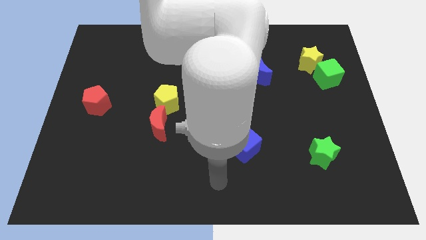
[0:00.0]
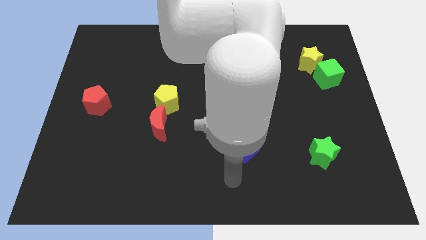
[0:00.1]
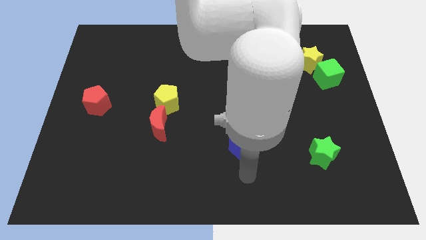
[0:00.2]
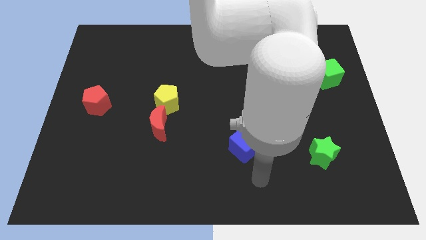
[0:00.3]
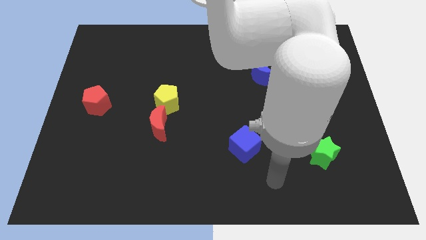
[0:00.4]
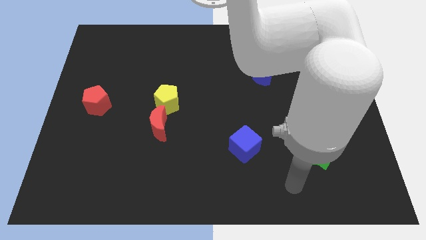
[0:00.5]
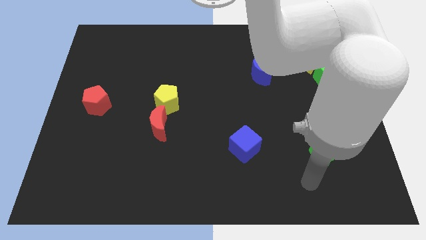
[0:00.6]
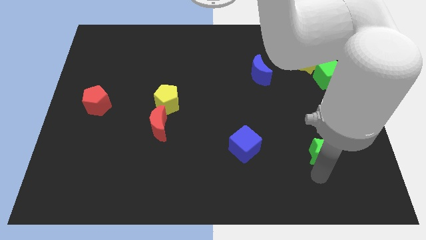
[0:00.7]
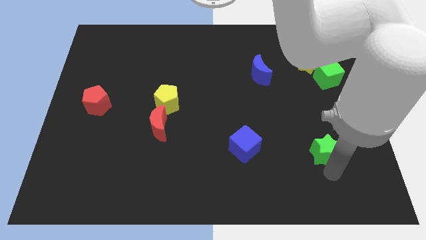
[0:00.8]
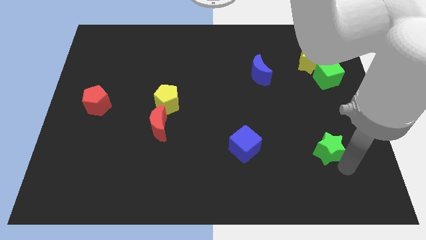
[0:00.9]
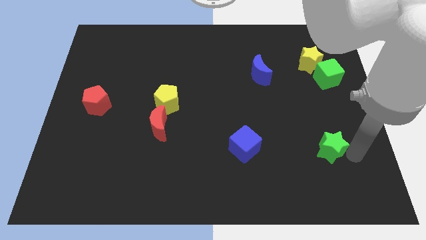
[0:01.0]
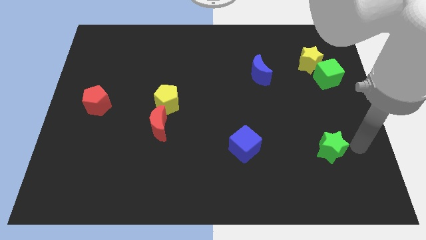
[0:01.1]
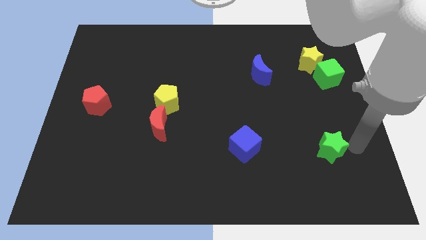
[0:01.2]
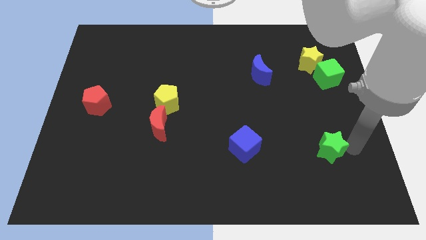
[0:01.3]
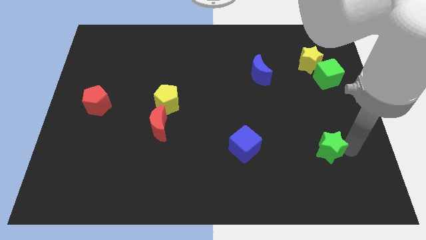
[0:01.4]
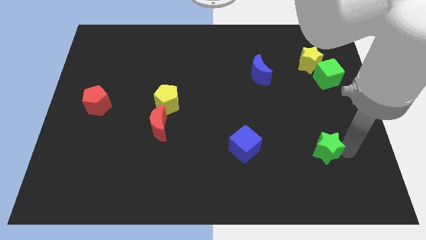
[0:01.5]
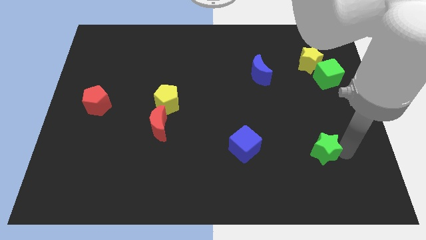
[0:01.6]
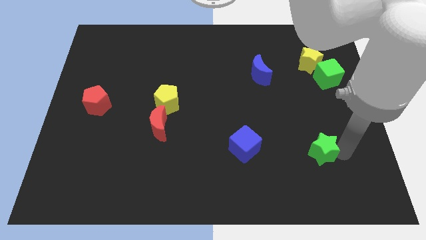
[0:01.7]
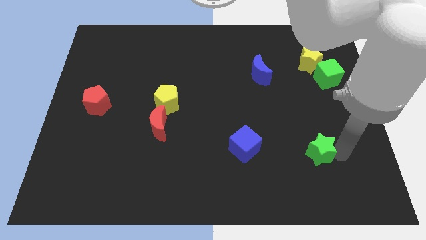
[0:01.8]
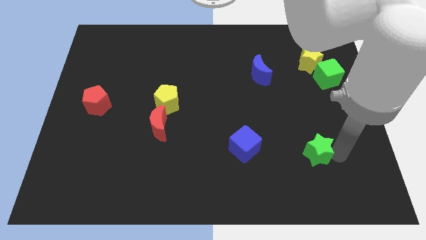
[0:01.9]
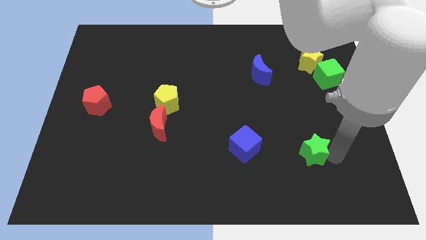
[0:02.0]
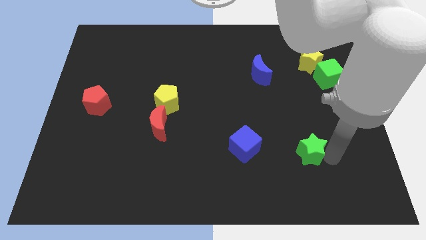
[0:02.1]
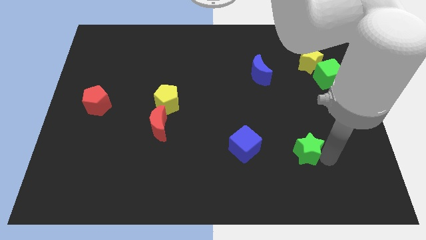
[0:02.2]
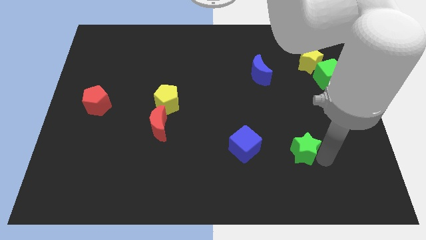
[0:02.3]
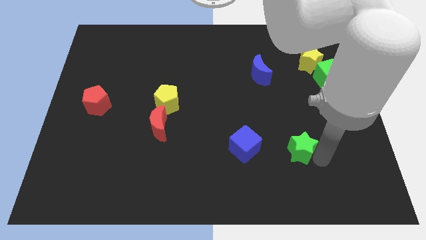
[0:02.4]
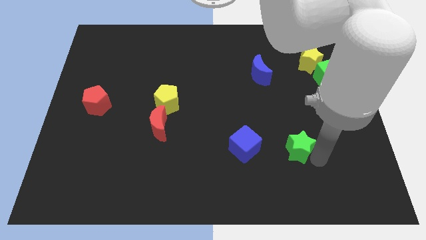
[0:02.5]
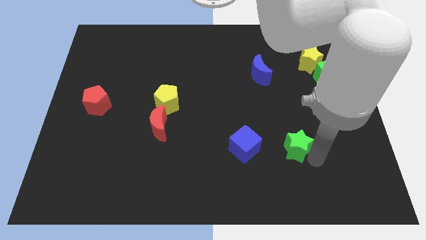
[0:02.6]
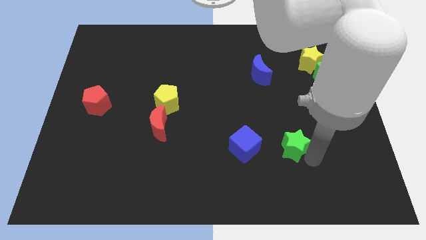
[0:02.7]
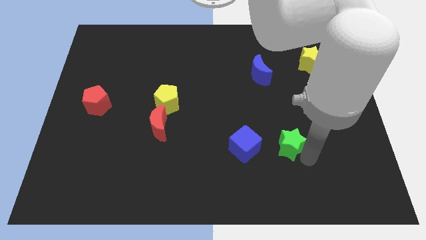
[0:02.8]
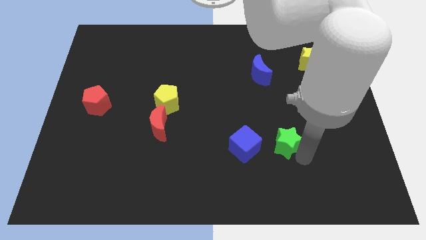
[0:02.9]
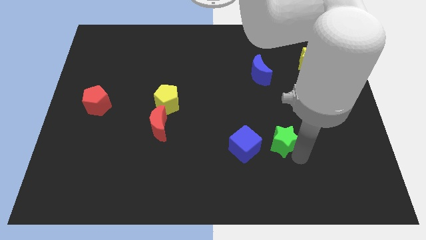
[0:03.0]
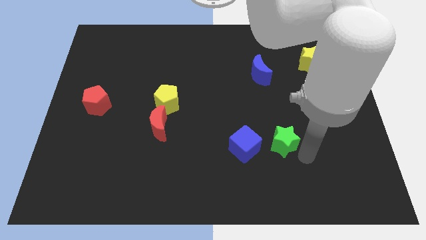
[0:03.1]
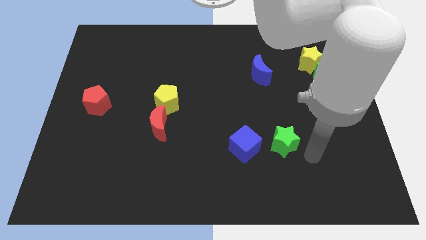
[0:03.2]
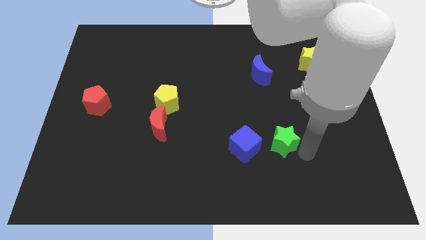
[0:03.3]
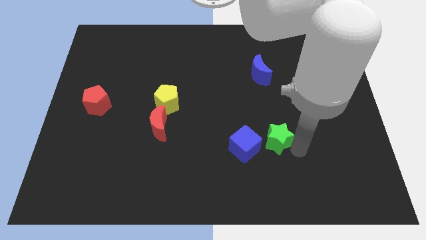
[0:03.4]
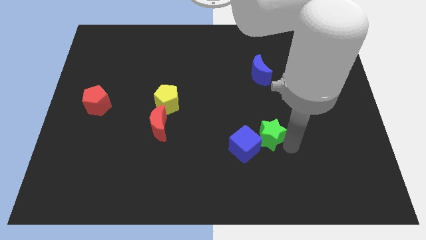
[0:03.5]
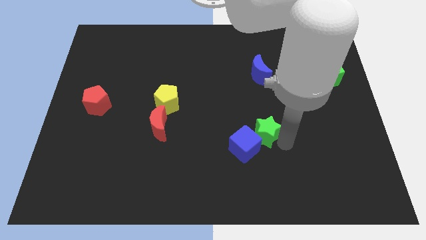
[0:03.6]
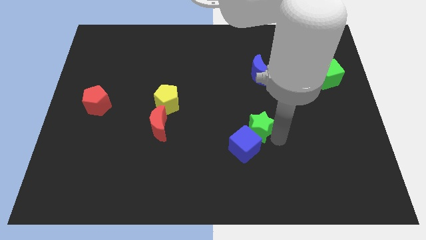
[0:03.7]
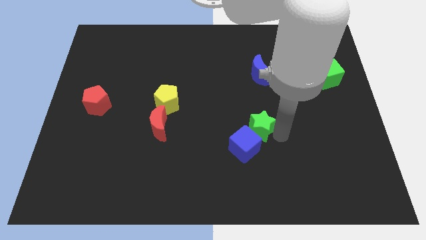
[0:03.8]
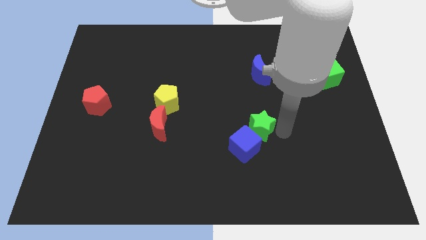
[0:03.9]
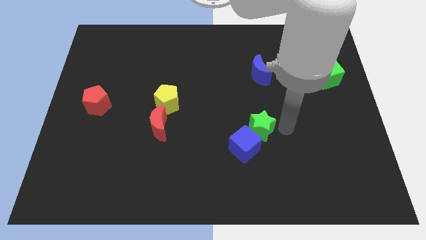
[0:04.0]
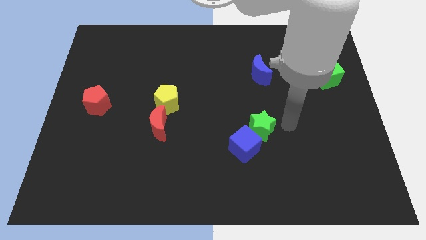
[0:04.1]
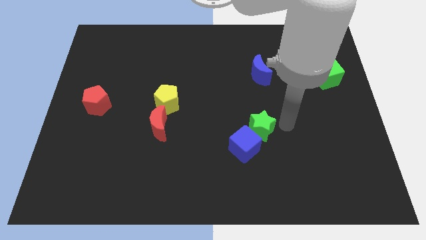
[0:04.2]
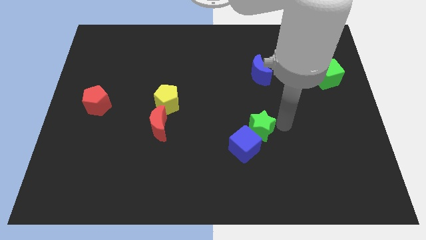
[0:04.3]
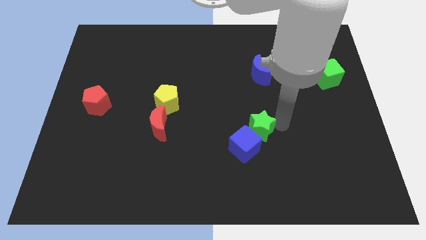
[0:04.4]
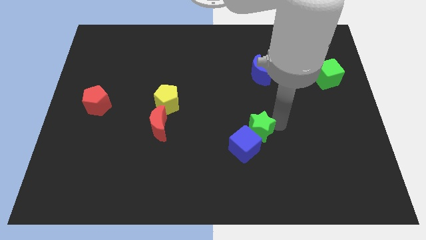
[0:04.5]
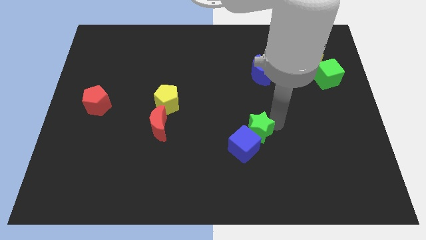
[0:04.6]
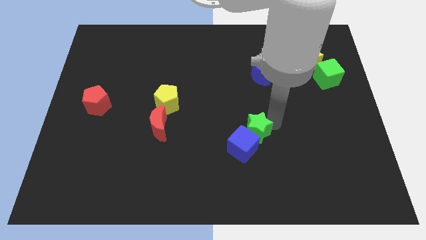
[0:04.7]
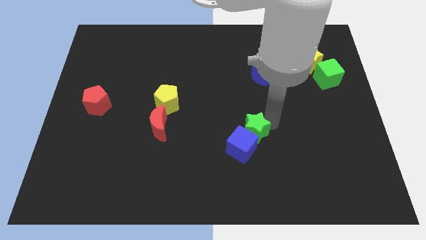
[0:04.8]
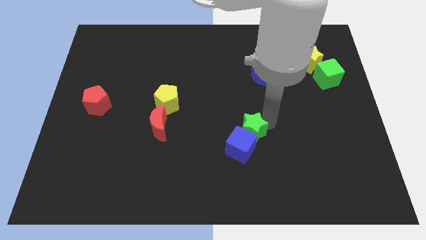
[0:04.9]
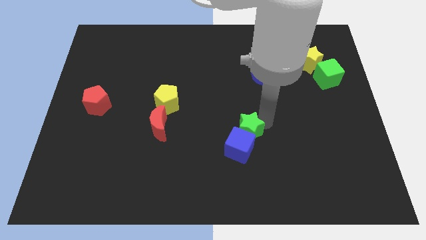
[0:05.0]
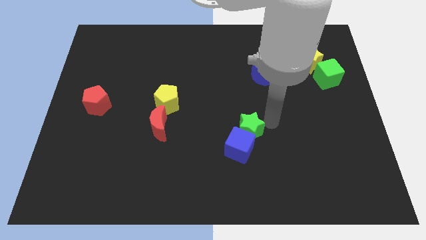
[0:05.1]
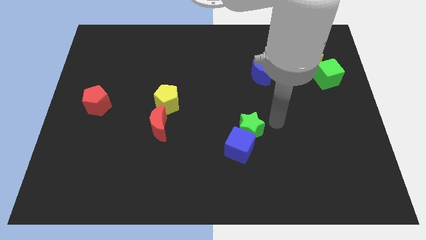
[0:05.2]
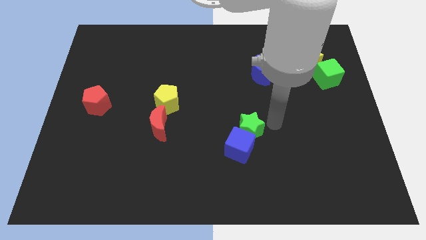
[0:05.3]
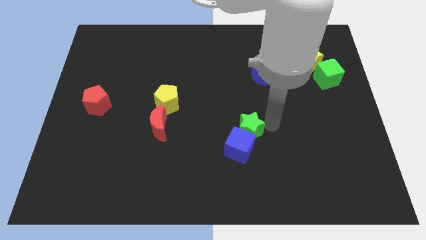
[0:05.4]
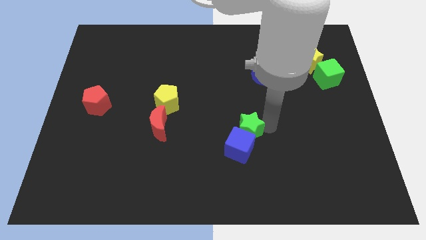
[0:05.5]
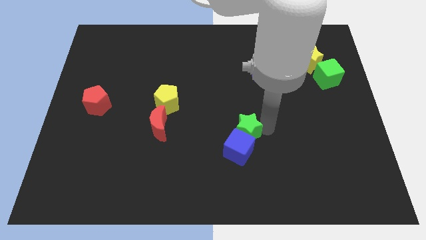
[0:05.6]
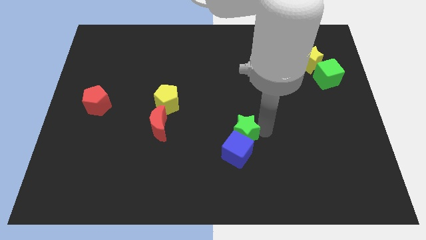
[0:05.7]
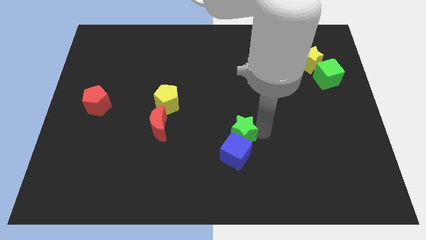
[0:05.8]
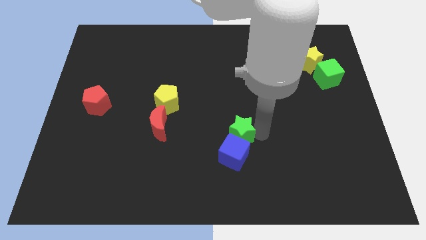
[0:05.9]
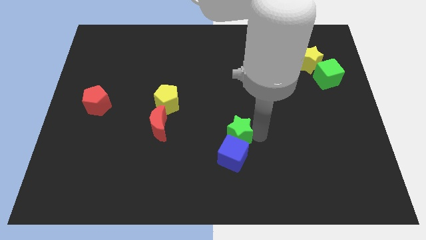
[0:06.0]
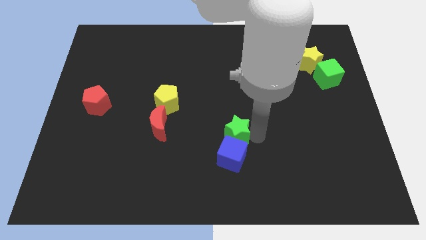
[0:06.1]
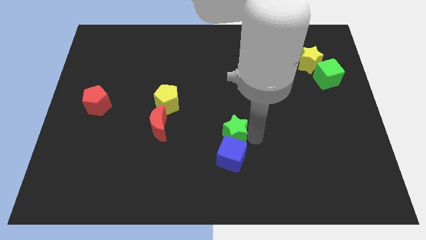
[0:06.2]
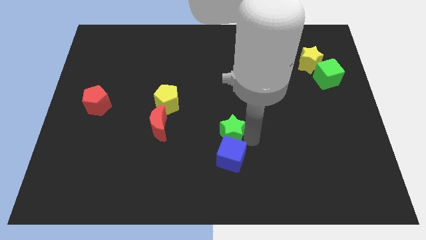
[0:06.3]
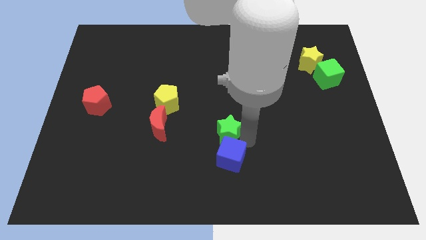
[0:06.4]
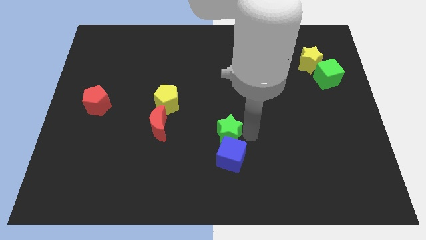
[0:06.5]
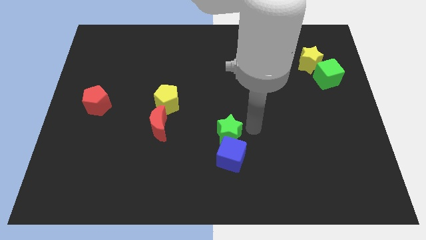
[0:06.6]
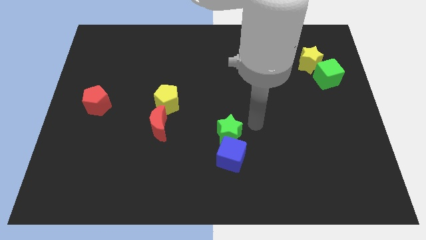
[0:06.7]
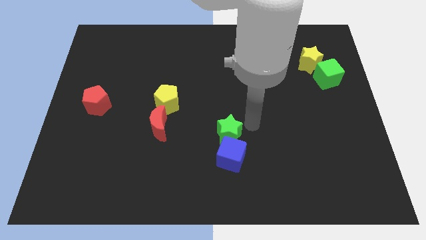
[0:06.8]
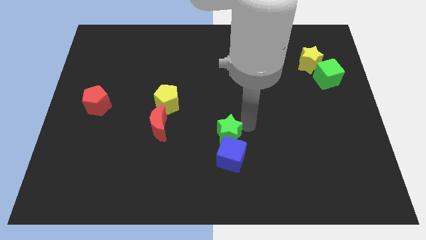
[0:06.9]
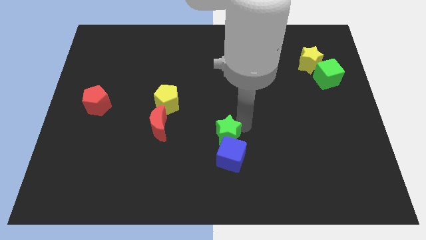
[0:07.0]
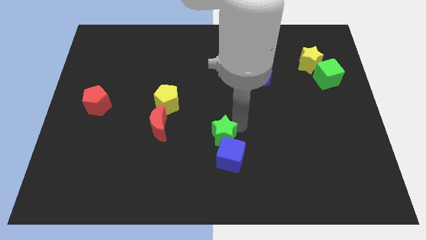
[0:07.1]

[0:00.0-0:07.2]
move the green star to the left

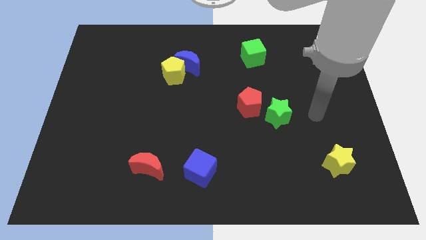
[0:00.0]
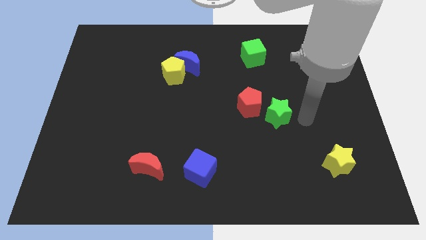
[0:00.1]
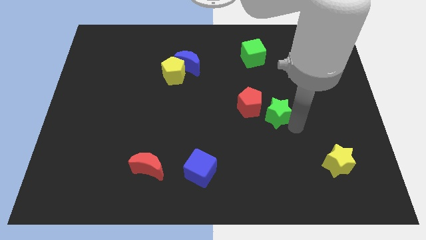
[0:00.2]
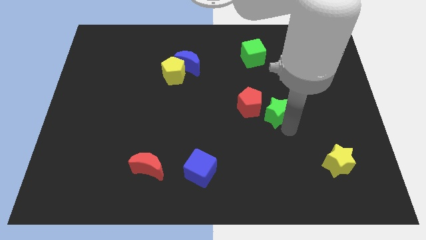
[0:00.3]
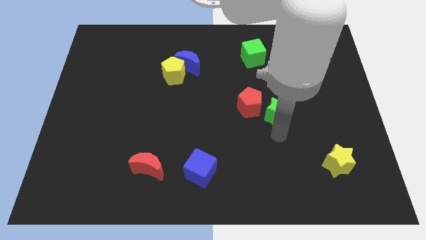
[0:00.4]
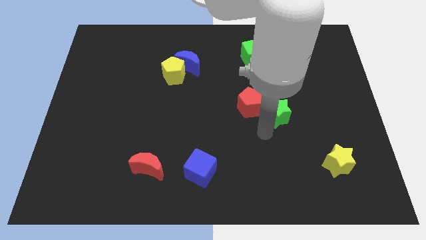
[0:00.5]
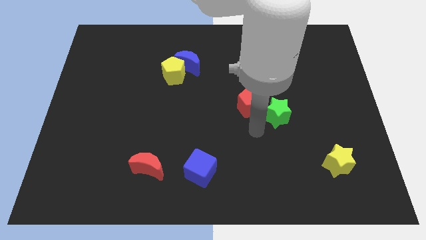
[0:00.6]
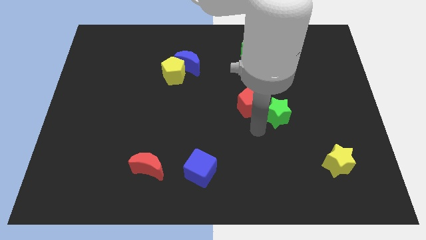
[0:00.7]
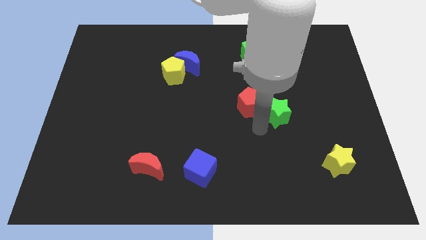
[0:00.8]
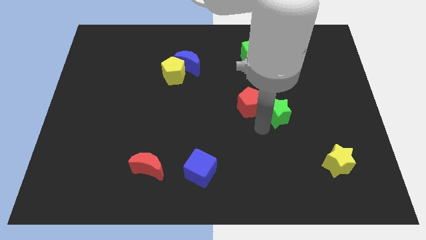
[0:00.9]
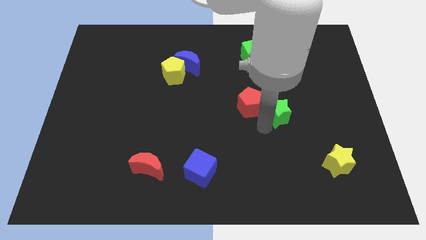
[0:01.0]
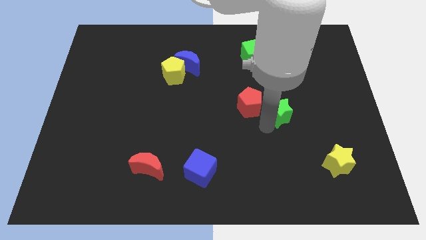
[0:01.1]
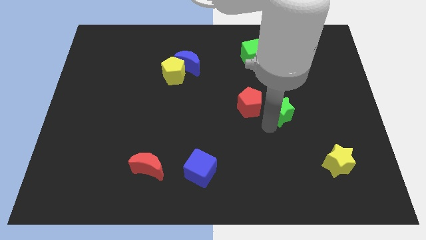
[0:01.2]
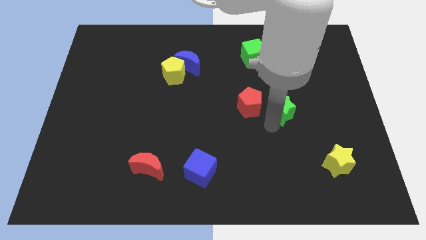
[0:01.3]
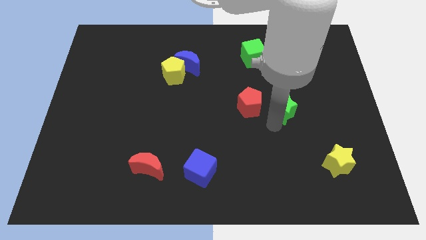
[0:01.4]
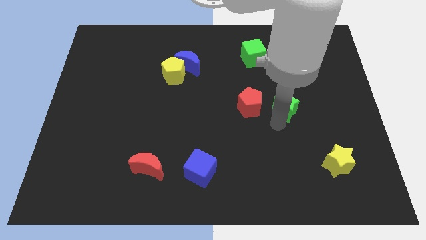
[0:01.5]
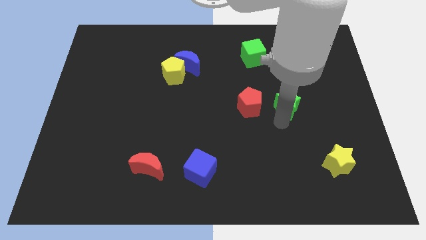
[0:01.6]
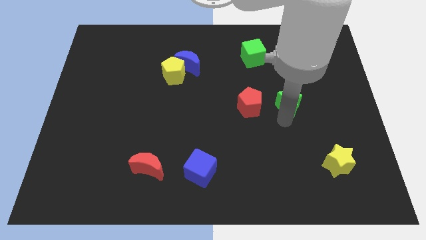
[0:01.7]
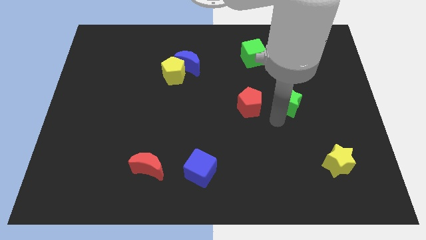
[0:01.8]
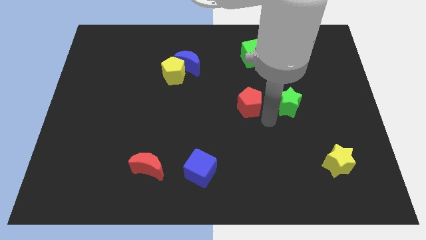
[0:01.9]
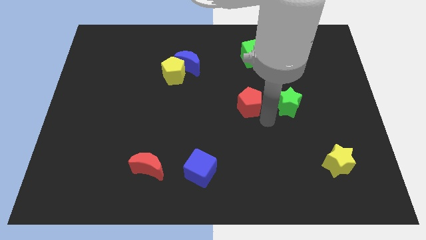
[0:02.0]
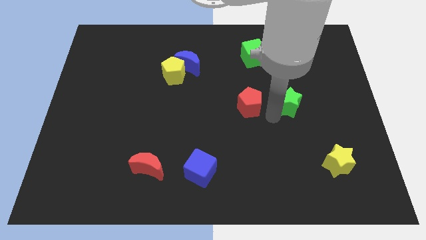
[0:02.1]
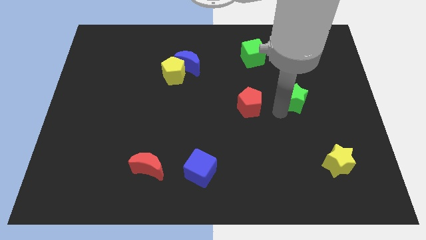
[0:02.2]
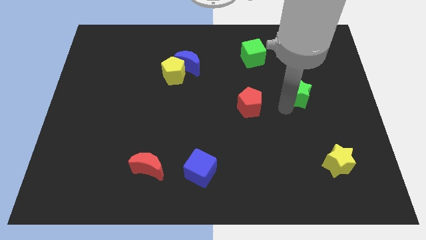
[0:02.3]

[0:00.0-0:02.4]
slide the green star upwards and right a little bit
